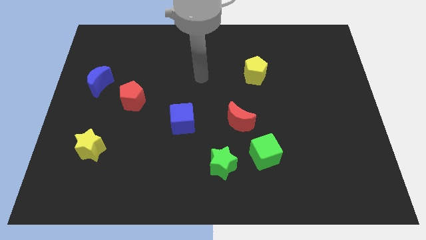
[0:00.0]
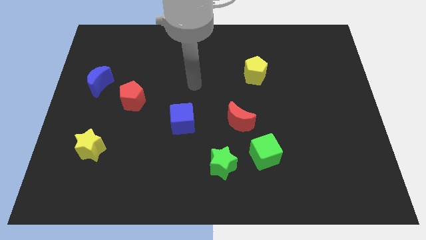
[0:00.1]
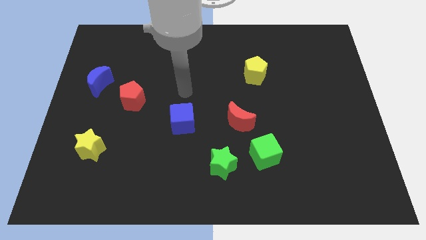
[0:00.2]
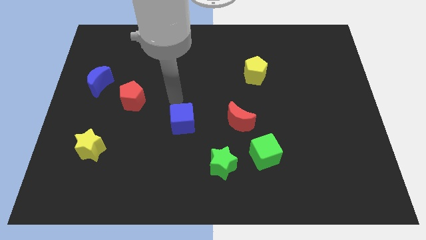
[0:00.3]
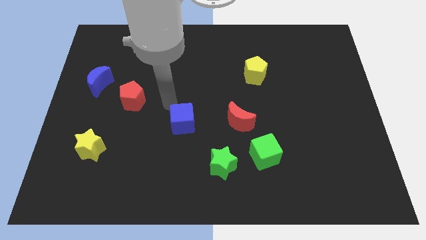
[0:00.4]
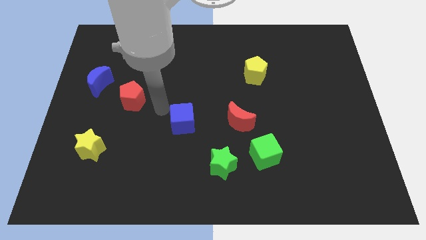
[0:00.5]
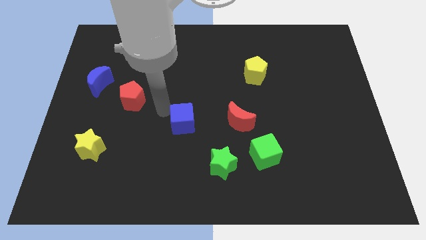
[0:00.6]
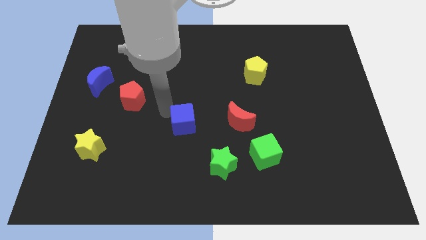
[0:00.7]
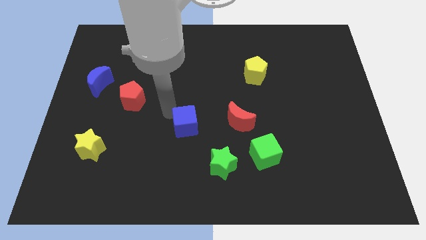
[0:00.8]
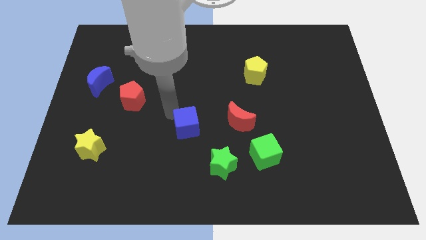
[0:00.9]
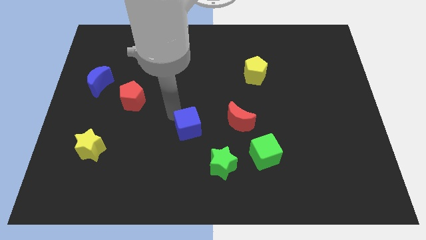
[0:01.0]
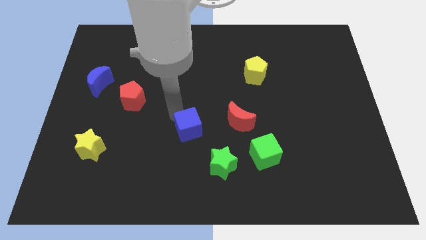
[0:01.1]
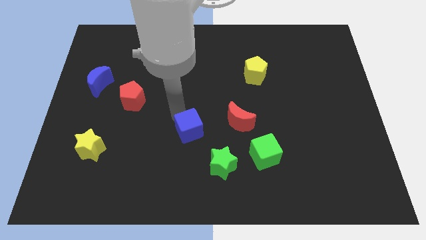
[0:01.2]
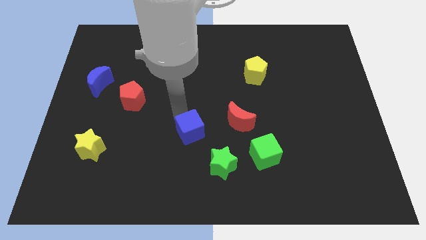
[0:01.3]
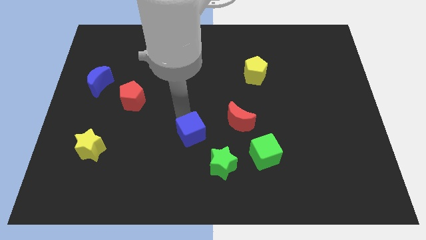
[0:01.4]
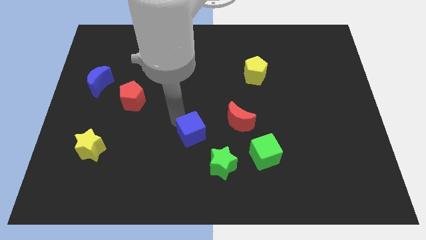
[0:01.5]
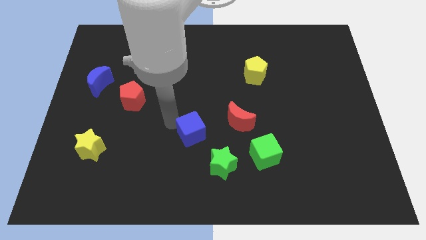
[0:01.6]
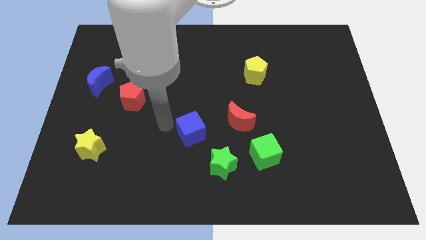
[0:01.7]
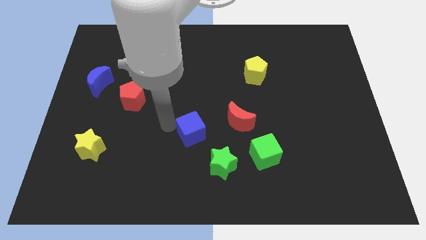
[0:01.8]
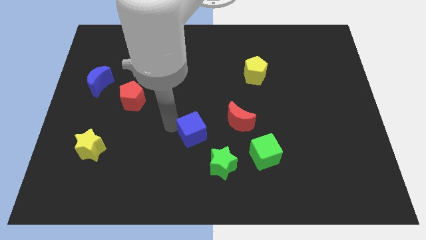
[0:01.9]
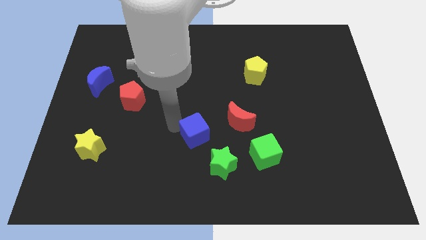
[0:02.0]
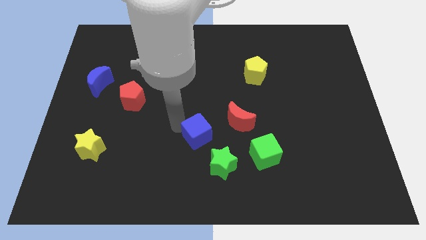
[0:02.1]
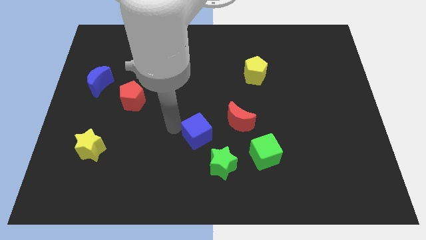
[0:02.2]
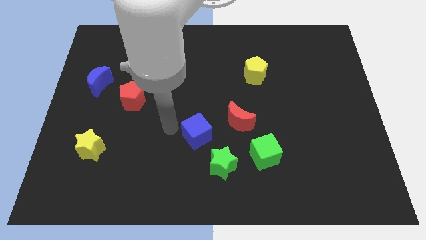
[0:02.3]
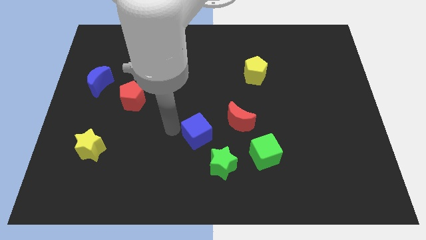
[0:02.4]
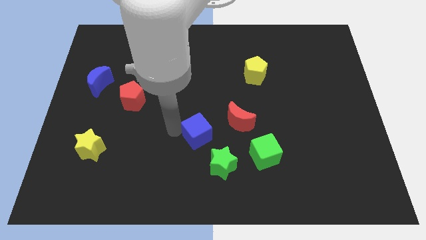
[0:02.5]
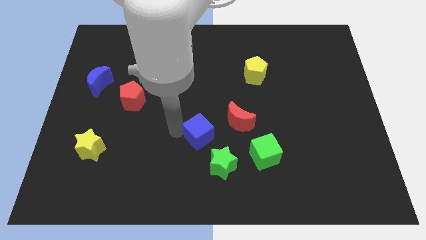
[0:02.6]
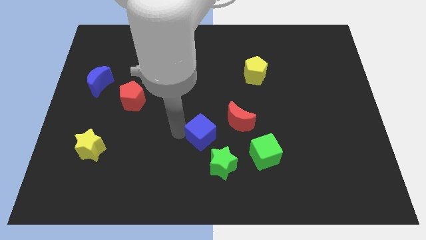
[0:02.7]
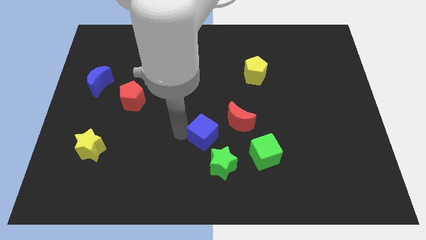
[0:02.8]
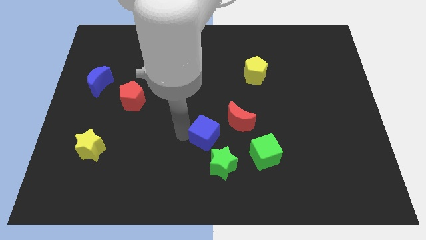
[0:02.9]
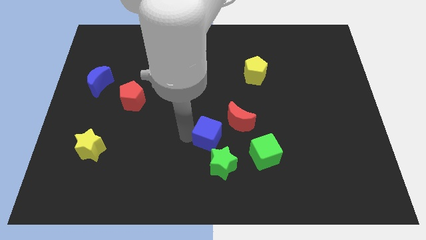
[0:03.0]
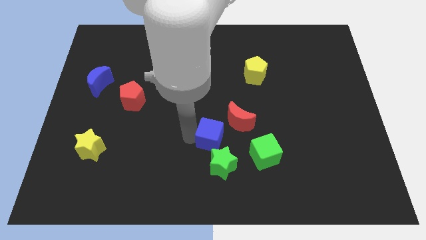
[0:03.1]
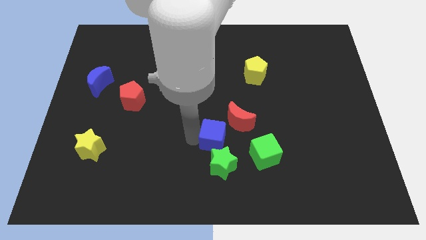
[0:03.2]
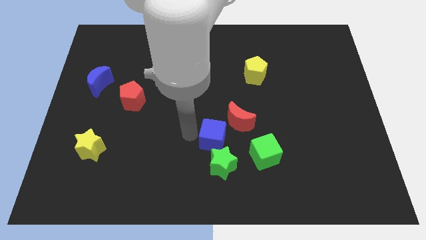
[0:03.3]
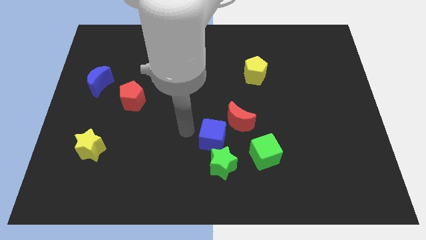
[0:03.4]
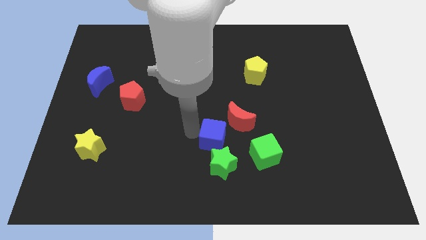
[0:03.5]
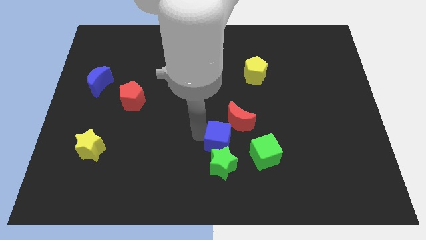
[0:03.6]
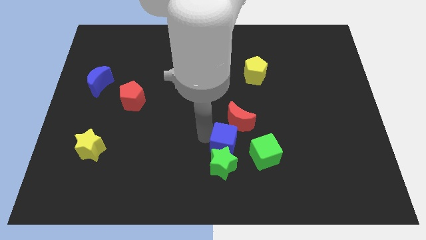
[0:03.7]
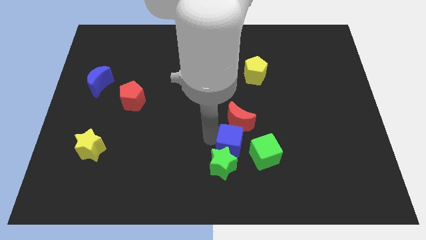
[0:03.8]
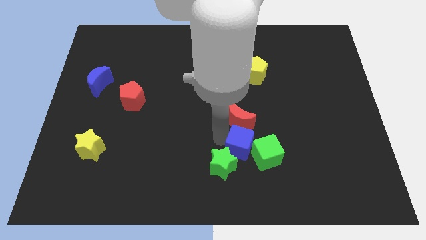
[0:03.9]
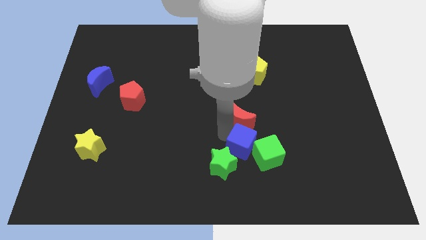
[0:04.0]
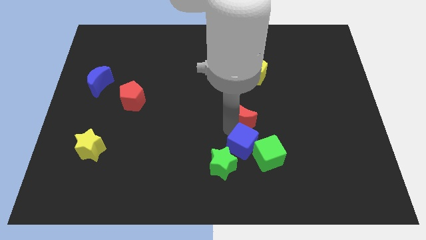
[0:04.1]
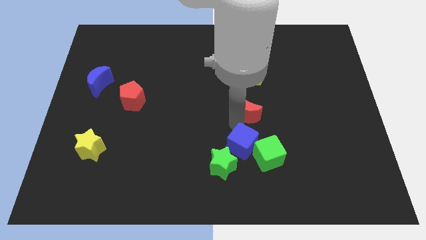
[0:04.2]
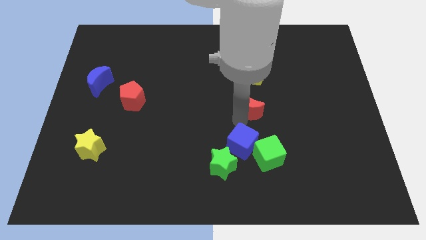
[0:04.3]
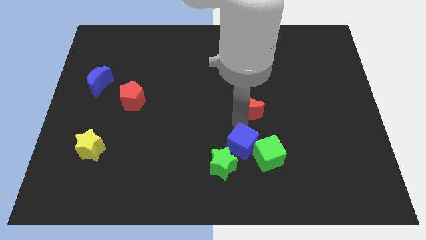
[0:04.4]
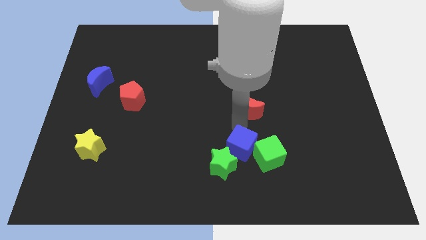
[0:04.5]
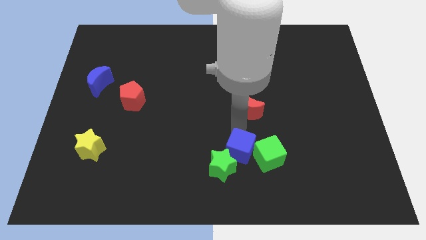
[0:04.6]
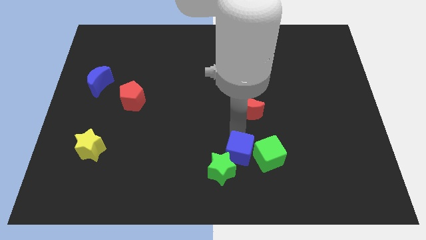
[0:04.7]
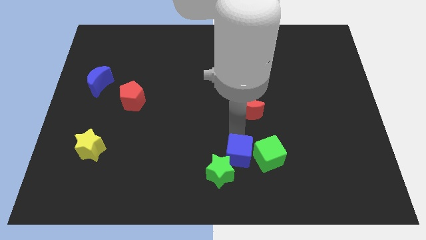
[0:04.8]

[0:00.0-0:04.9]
put the blue cube to the bottom left side of the green cube

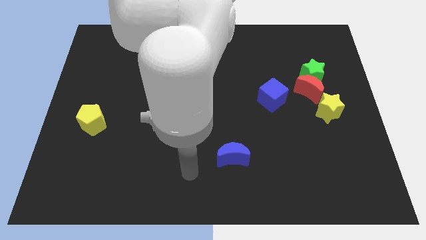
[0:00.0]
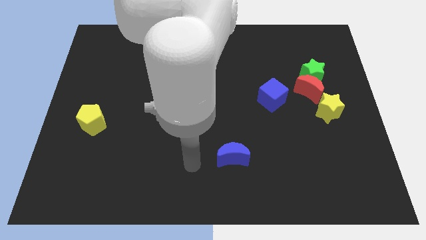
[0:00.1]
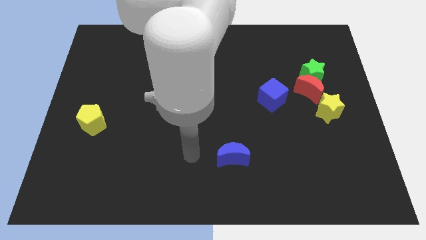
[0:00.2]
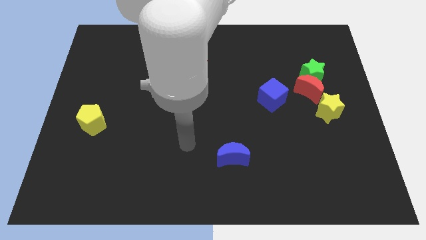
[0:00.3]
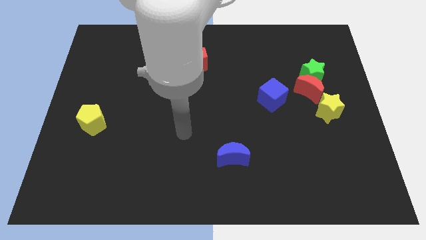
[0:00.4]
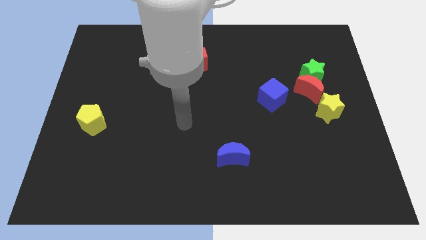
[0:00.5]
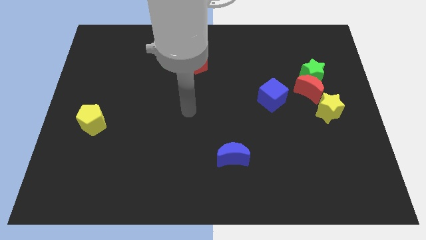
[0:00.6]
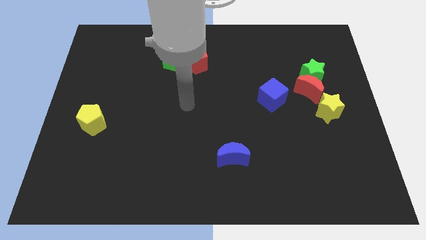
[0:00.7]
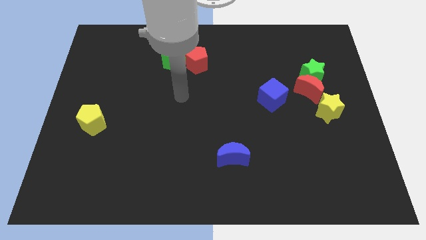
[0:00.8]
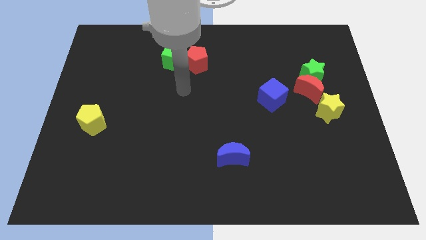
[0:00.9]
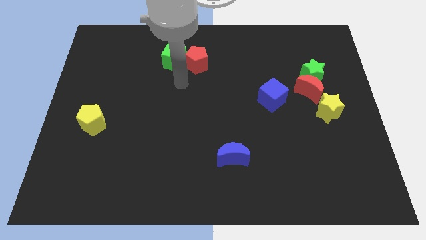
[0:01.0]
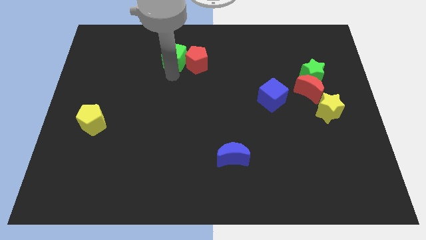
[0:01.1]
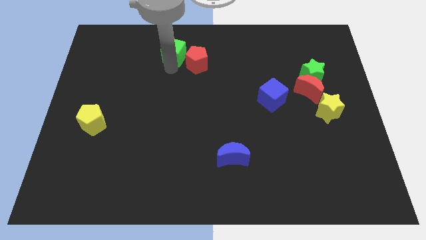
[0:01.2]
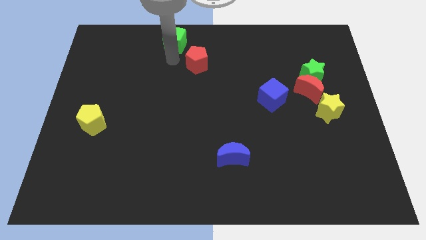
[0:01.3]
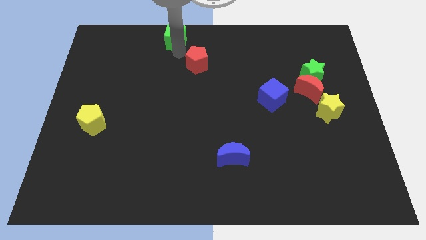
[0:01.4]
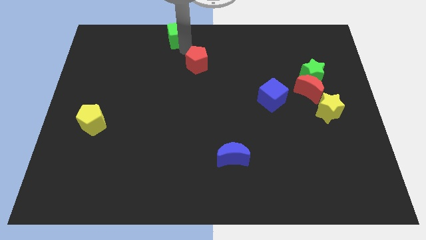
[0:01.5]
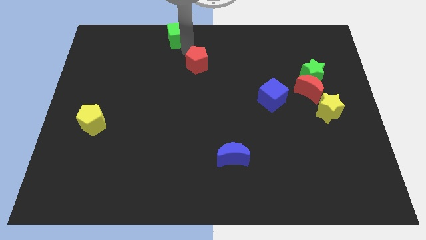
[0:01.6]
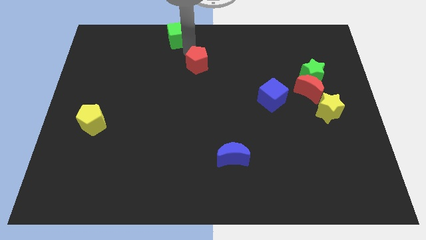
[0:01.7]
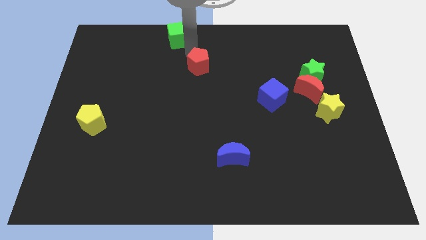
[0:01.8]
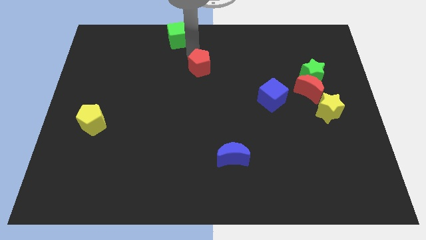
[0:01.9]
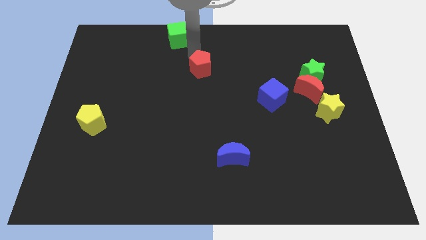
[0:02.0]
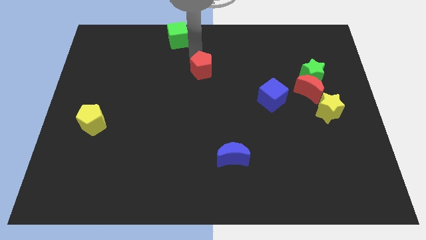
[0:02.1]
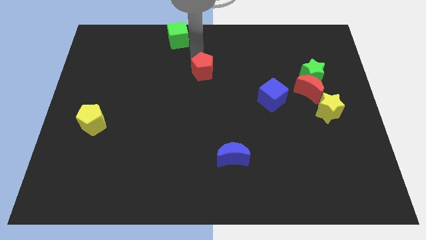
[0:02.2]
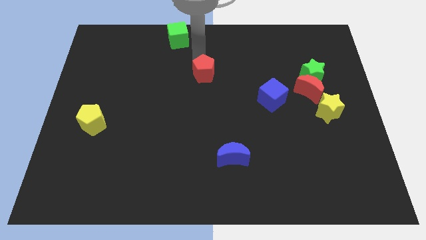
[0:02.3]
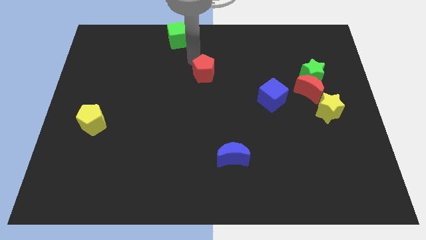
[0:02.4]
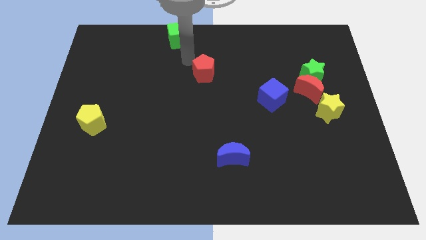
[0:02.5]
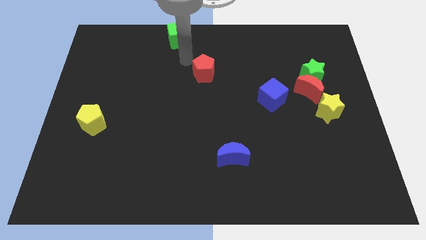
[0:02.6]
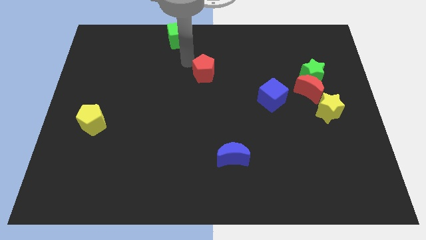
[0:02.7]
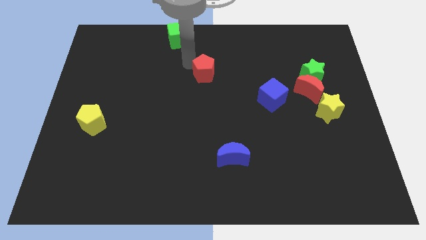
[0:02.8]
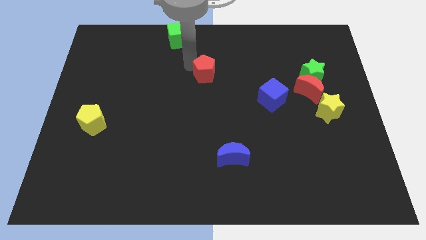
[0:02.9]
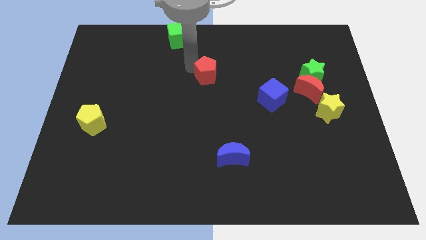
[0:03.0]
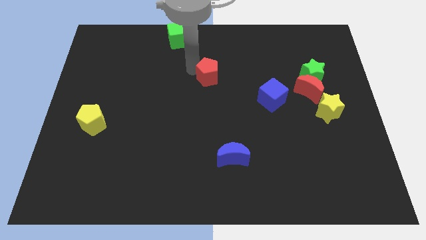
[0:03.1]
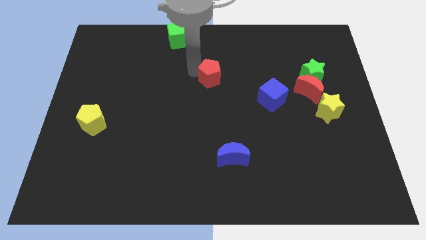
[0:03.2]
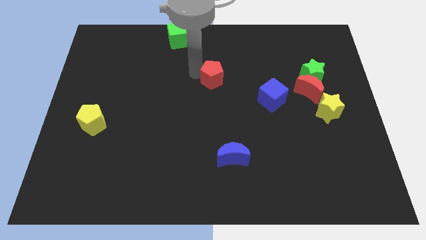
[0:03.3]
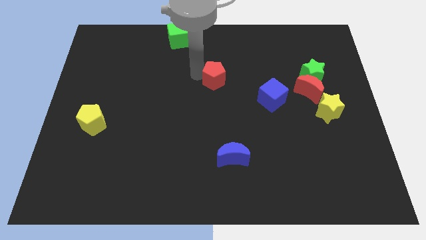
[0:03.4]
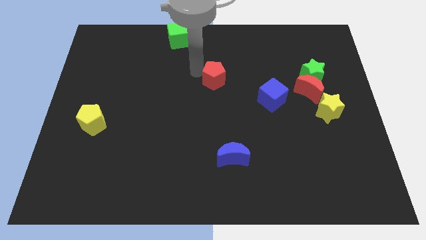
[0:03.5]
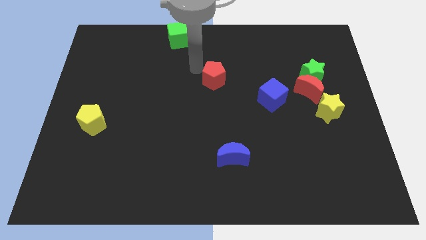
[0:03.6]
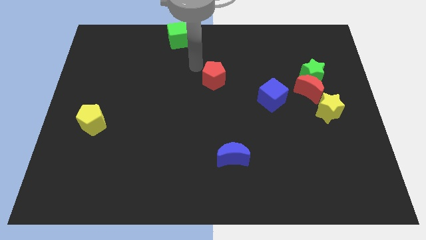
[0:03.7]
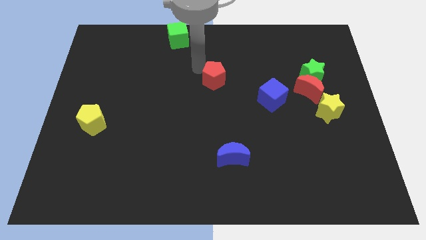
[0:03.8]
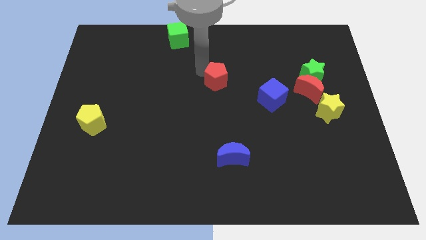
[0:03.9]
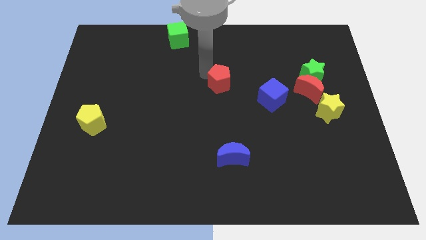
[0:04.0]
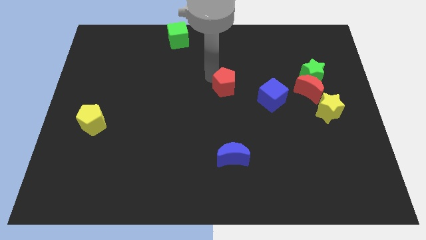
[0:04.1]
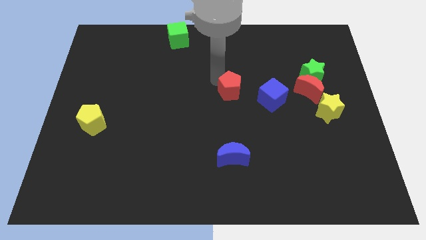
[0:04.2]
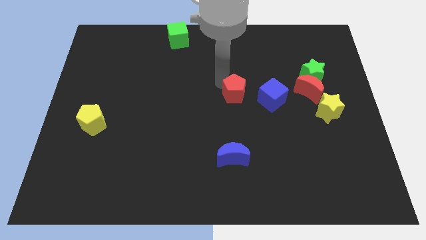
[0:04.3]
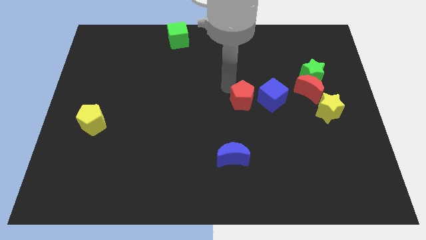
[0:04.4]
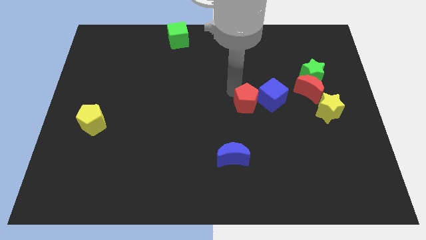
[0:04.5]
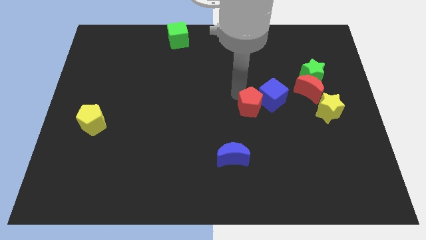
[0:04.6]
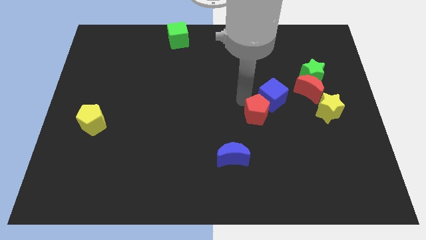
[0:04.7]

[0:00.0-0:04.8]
push the red pentagon below the blue cube
